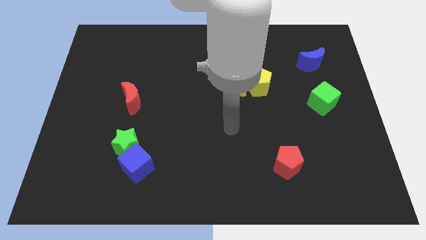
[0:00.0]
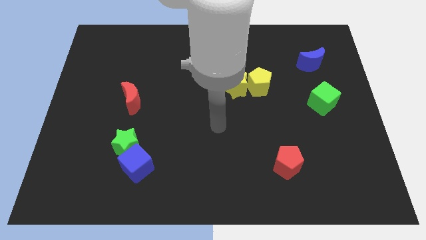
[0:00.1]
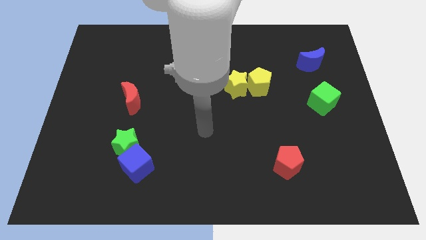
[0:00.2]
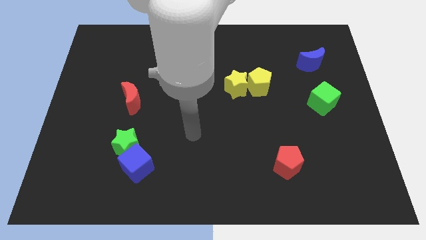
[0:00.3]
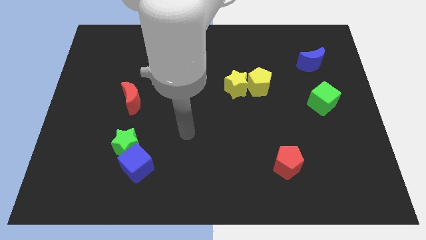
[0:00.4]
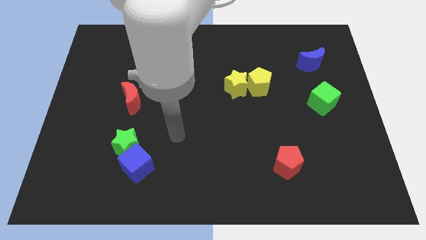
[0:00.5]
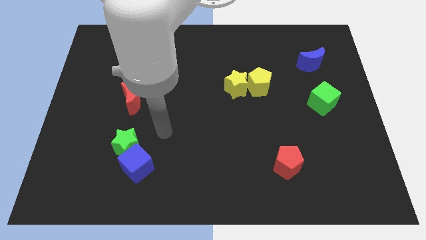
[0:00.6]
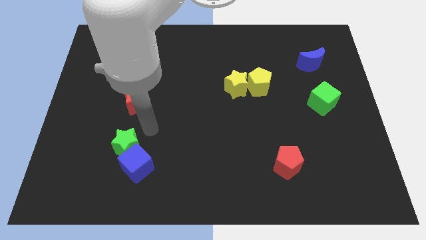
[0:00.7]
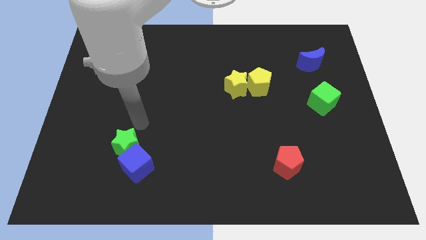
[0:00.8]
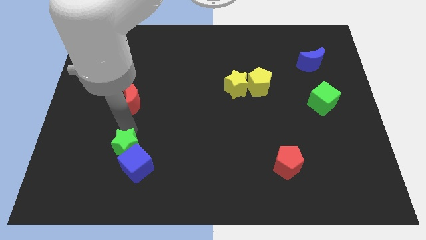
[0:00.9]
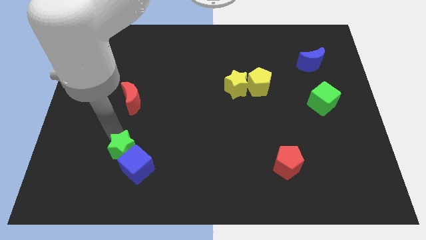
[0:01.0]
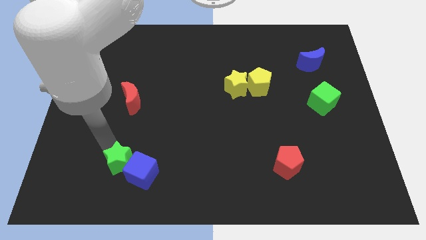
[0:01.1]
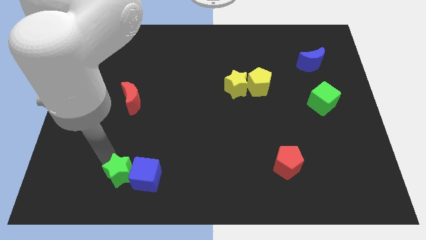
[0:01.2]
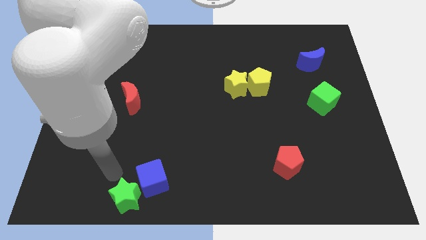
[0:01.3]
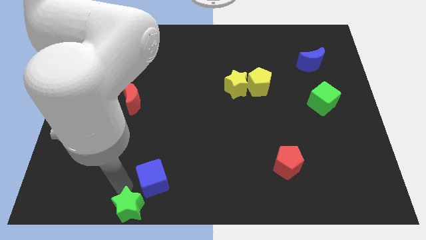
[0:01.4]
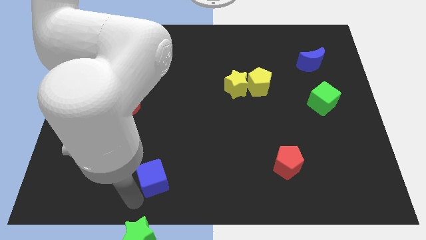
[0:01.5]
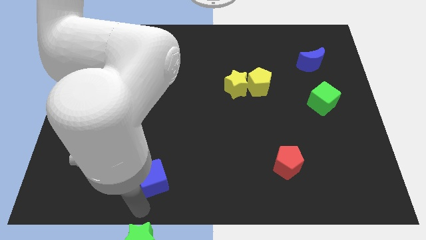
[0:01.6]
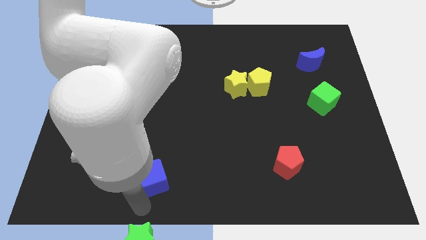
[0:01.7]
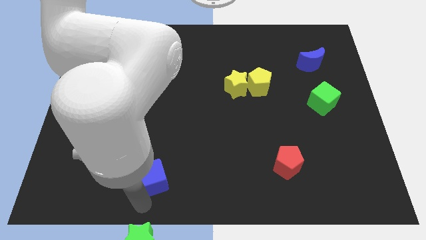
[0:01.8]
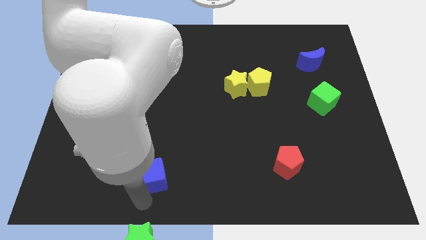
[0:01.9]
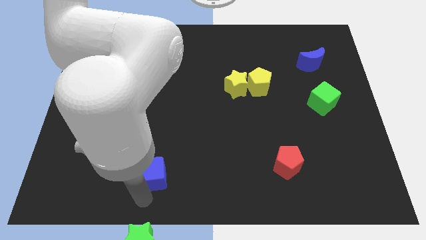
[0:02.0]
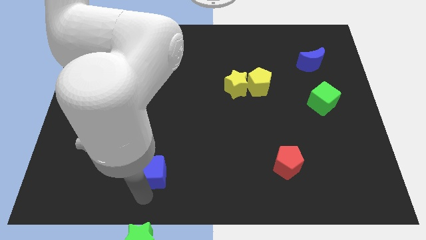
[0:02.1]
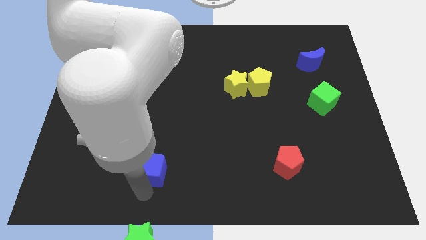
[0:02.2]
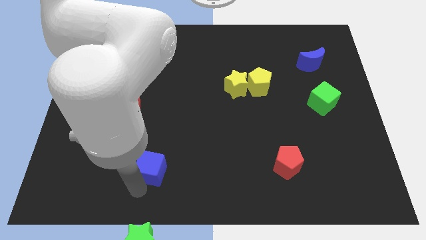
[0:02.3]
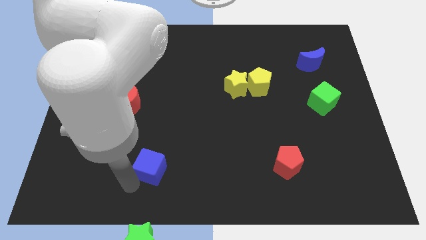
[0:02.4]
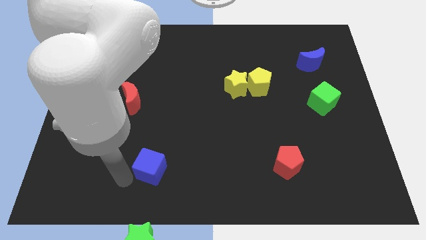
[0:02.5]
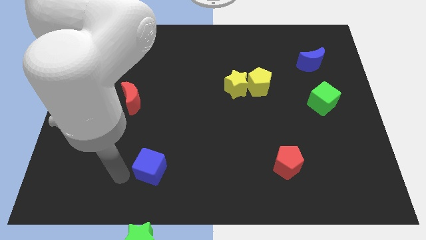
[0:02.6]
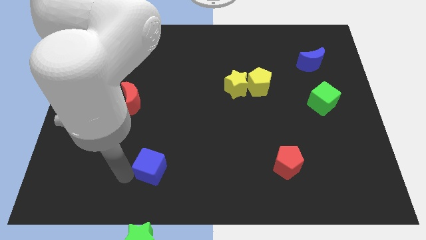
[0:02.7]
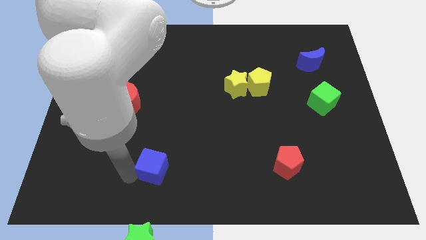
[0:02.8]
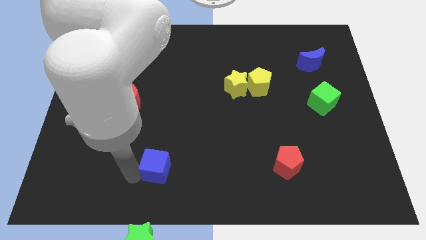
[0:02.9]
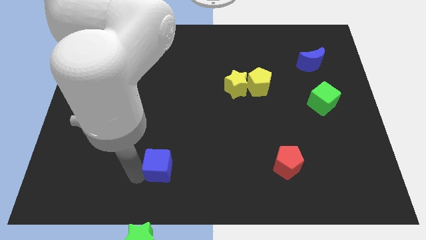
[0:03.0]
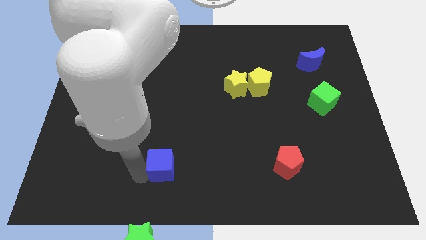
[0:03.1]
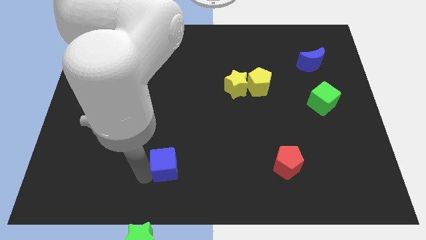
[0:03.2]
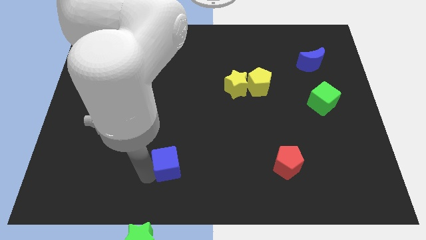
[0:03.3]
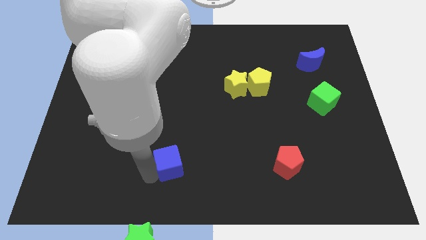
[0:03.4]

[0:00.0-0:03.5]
push the blue cube a bit to the right

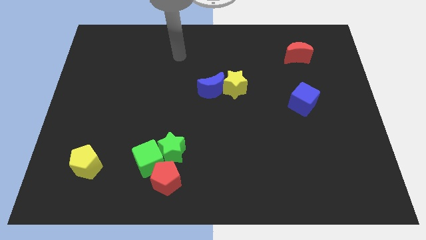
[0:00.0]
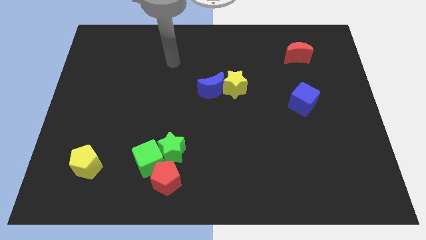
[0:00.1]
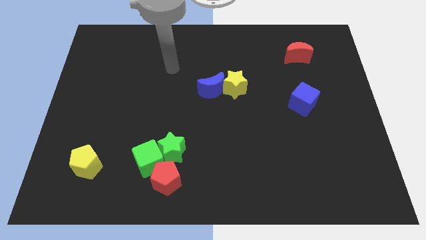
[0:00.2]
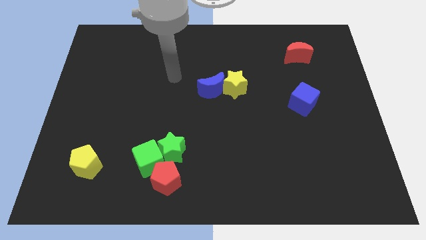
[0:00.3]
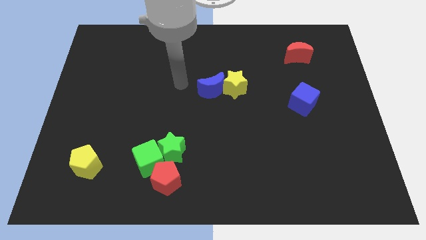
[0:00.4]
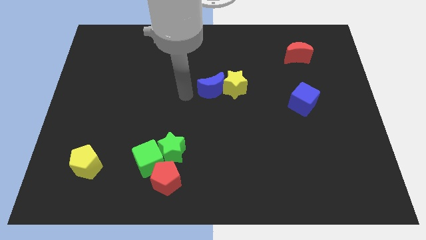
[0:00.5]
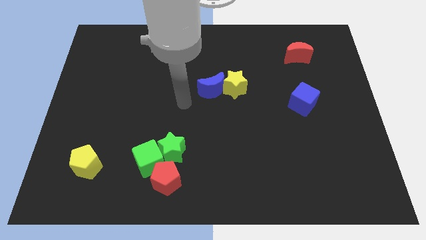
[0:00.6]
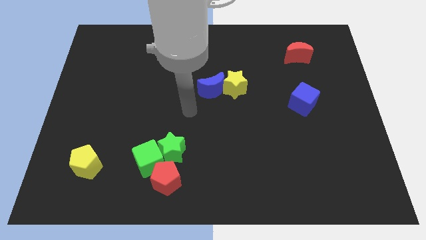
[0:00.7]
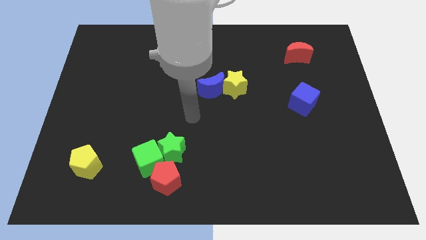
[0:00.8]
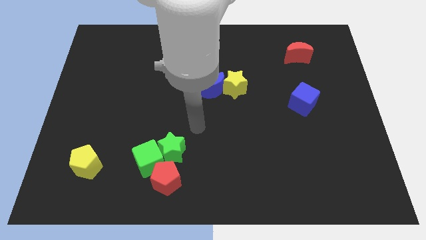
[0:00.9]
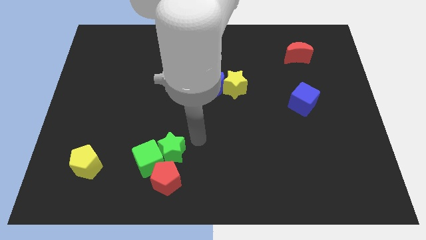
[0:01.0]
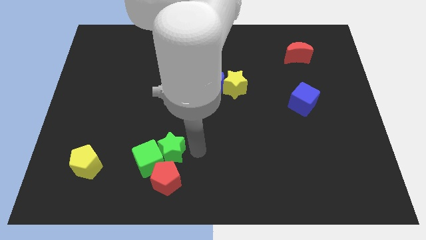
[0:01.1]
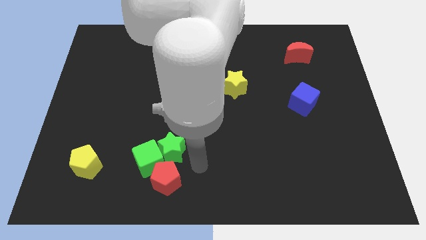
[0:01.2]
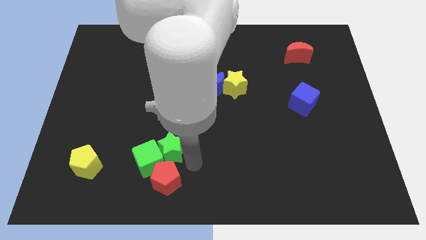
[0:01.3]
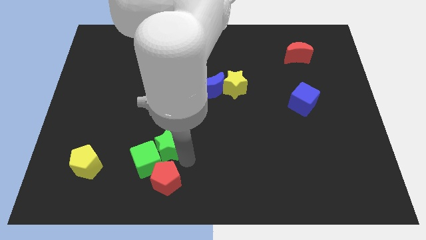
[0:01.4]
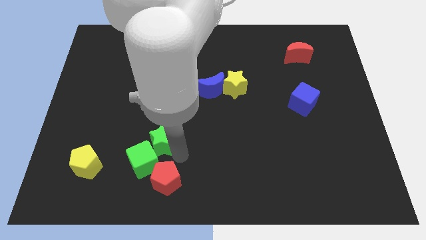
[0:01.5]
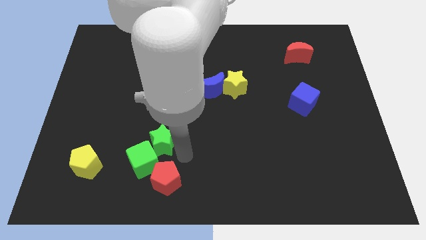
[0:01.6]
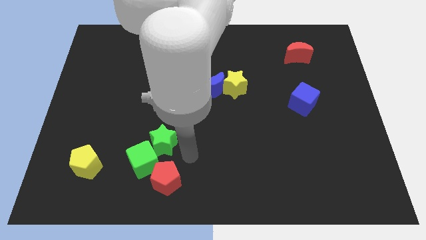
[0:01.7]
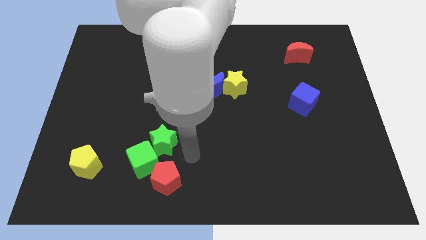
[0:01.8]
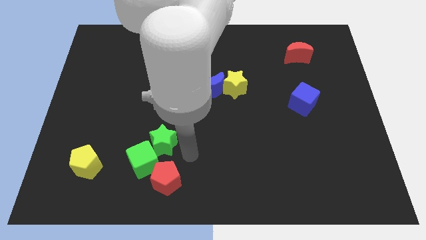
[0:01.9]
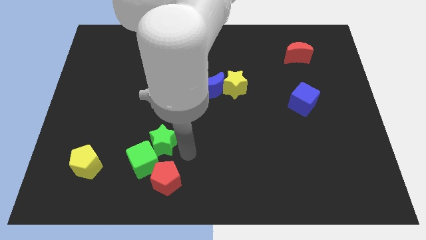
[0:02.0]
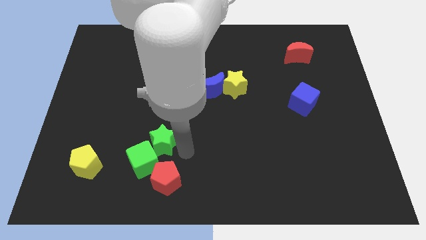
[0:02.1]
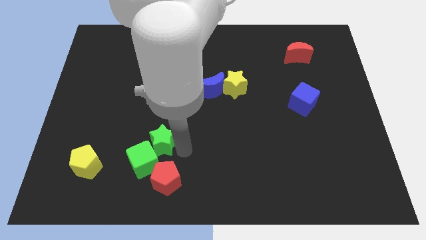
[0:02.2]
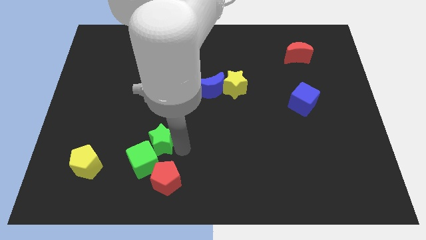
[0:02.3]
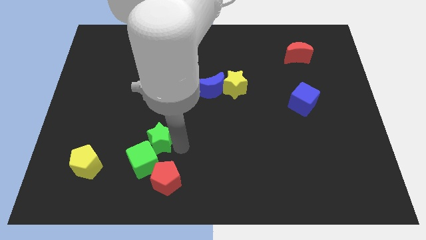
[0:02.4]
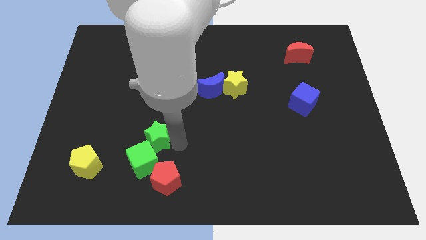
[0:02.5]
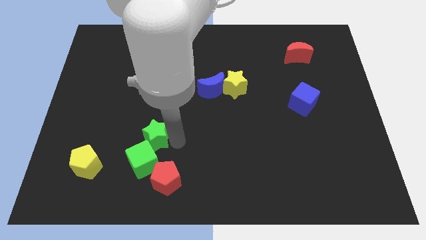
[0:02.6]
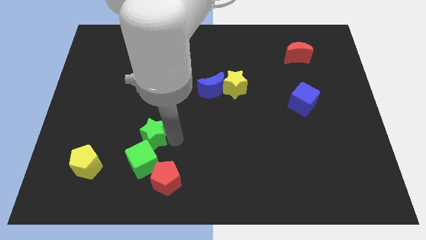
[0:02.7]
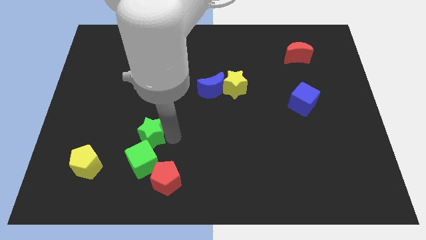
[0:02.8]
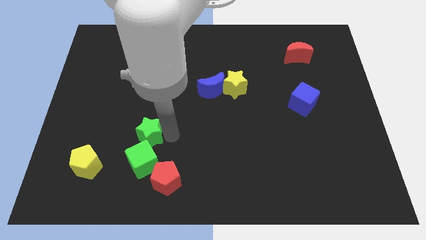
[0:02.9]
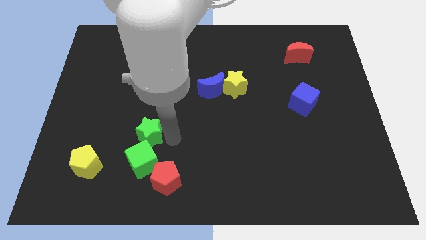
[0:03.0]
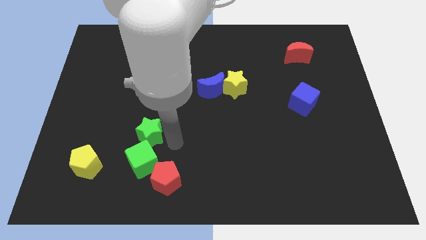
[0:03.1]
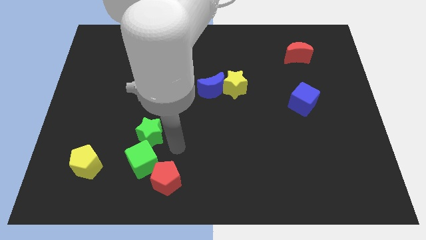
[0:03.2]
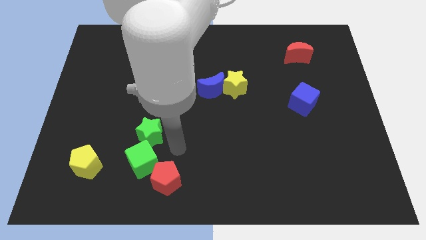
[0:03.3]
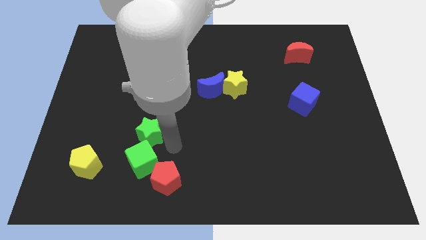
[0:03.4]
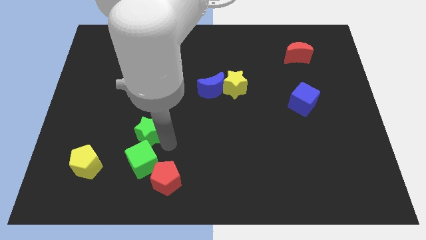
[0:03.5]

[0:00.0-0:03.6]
slide the green star diagonally upwards and to the left a little

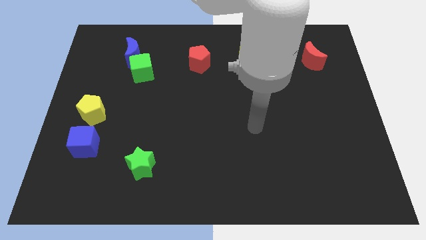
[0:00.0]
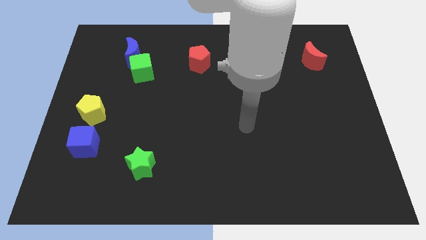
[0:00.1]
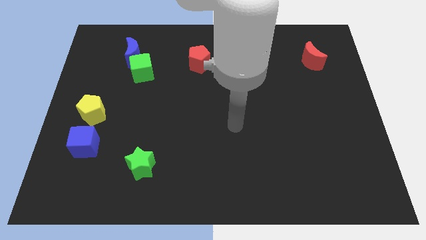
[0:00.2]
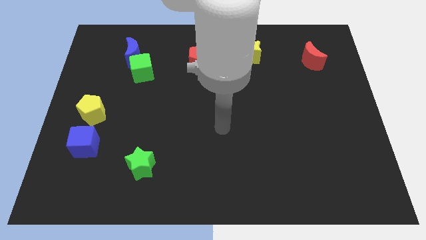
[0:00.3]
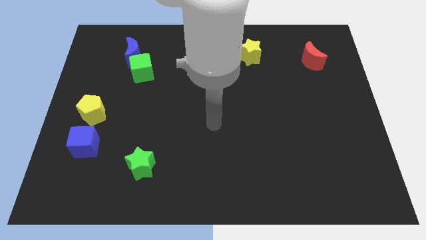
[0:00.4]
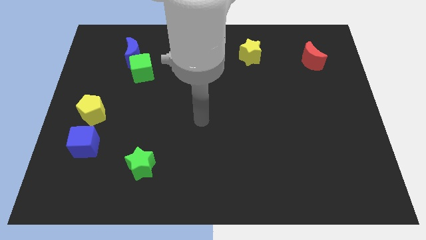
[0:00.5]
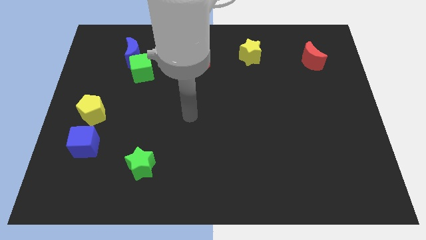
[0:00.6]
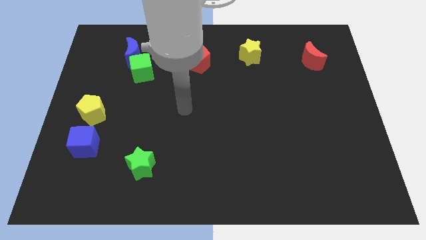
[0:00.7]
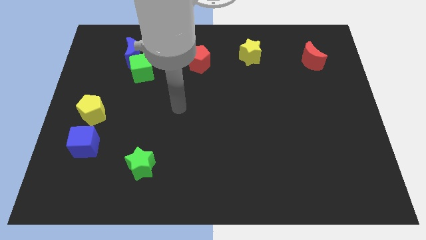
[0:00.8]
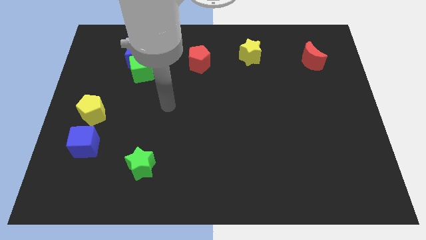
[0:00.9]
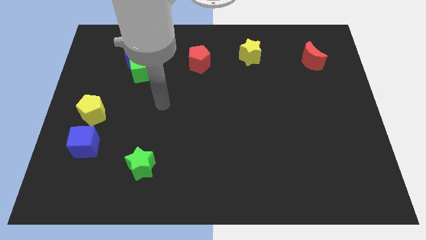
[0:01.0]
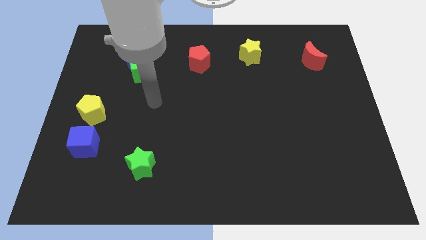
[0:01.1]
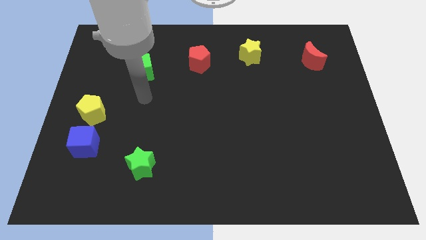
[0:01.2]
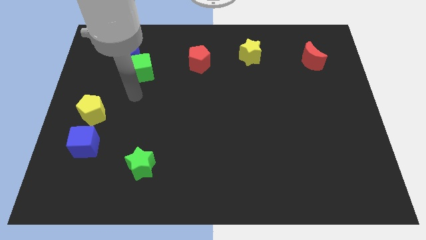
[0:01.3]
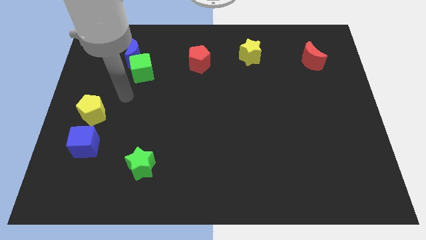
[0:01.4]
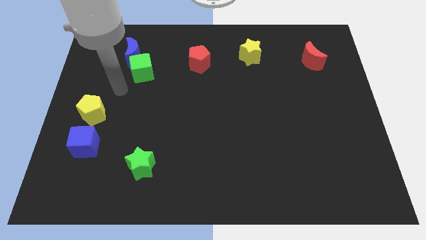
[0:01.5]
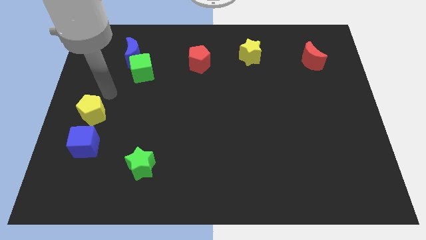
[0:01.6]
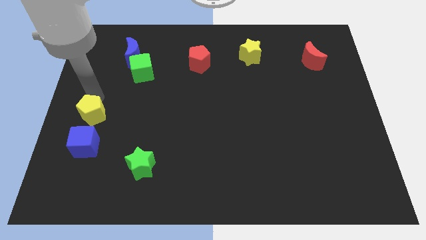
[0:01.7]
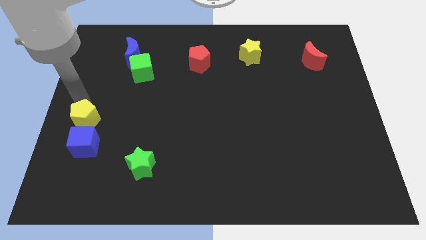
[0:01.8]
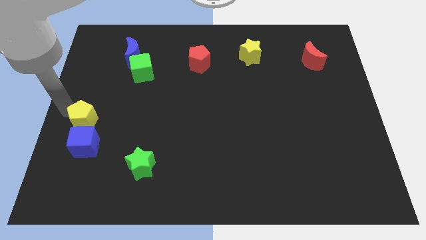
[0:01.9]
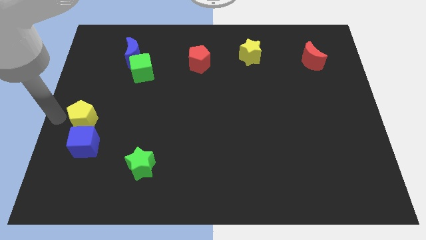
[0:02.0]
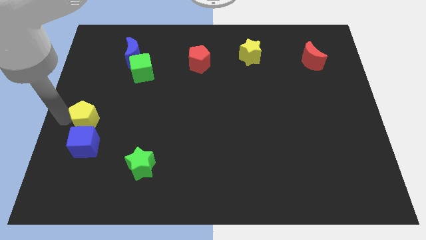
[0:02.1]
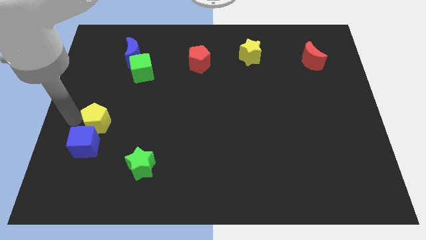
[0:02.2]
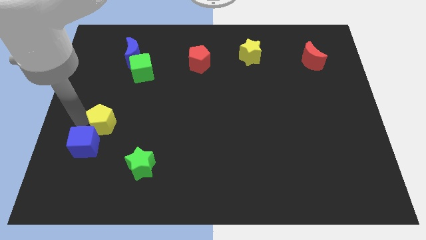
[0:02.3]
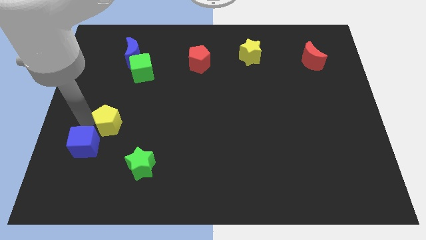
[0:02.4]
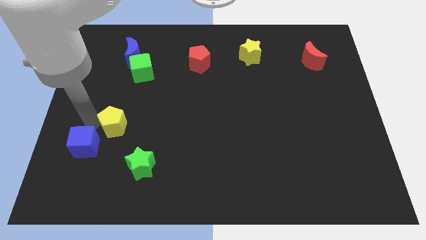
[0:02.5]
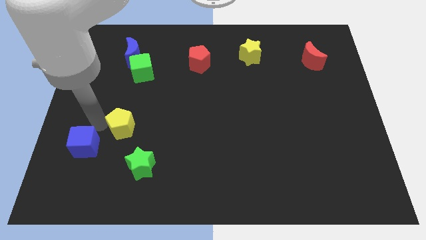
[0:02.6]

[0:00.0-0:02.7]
slightly push the yellow pentagon right
